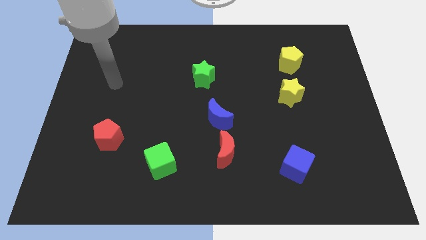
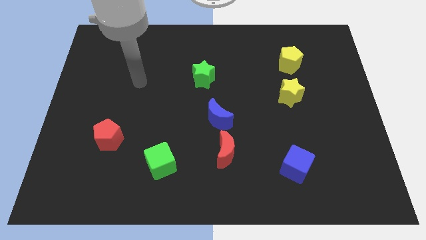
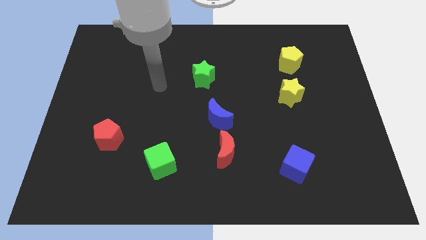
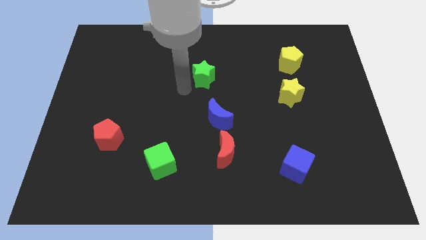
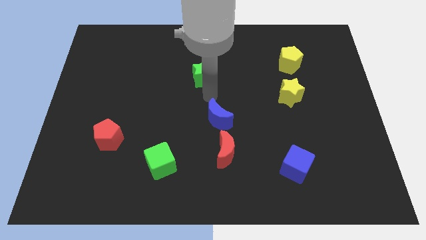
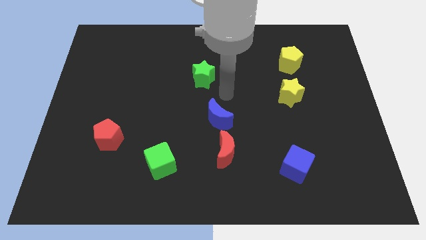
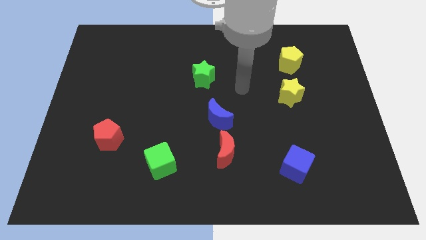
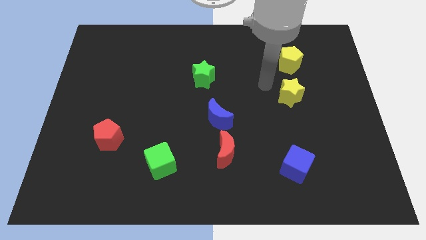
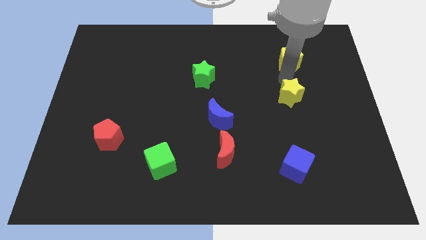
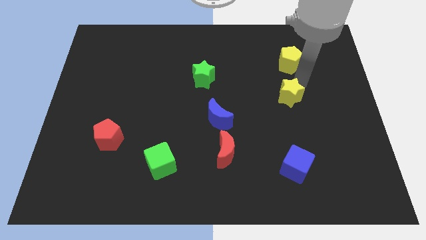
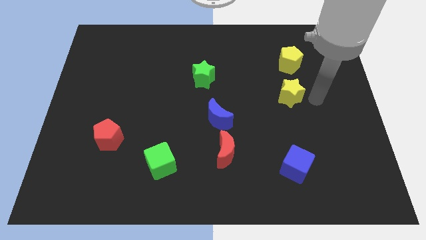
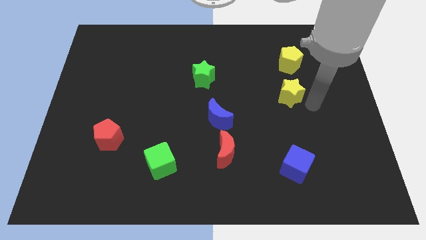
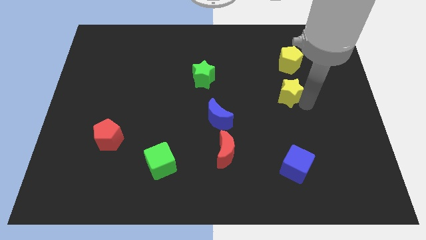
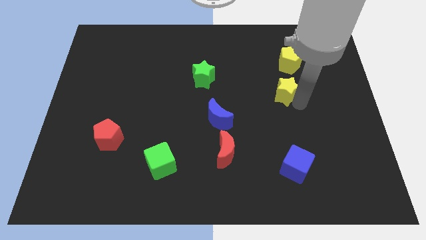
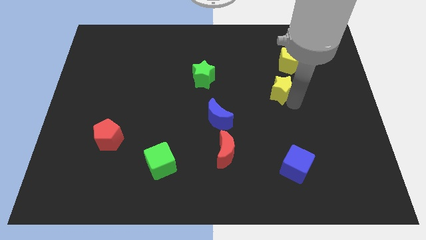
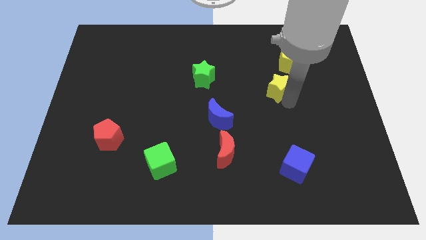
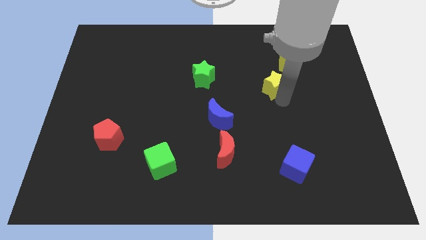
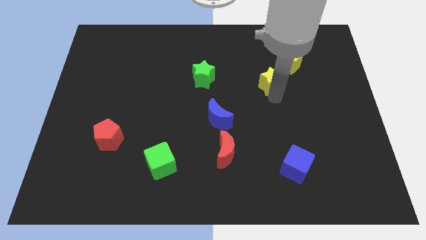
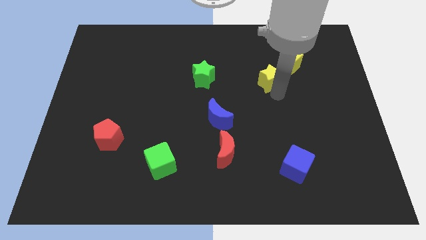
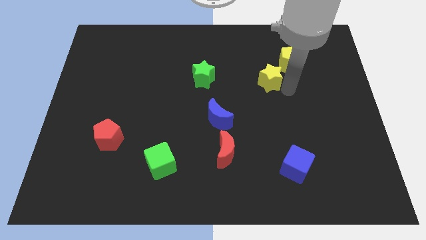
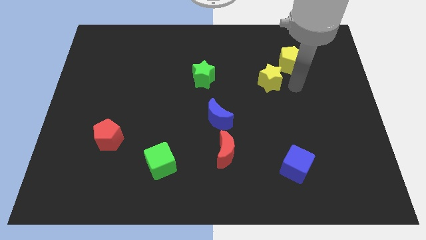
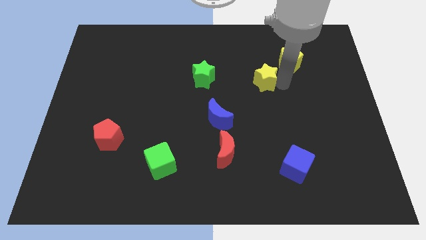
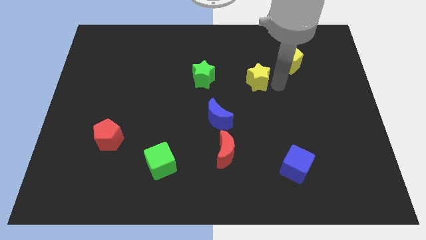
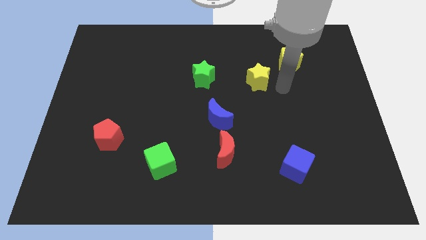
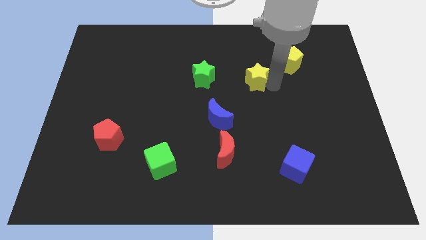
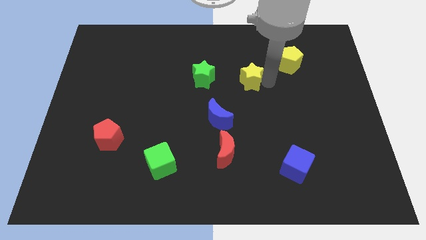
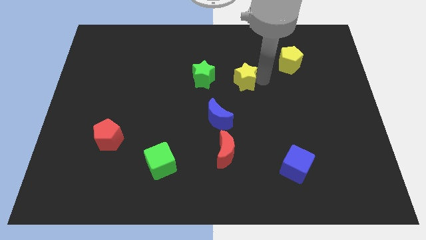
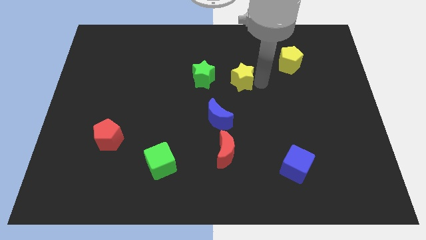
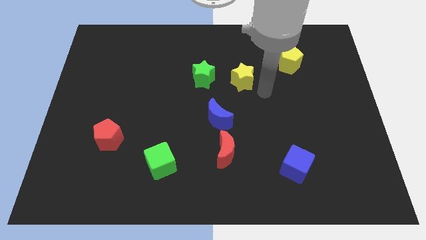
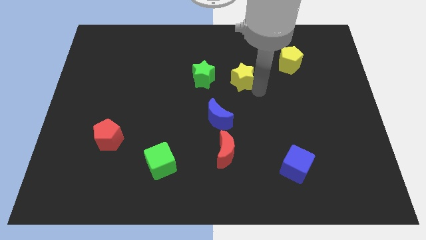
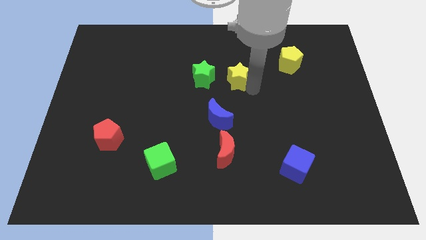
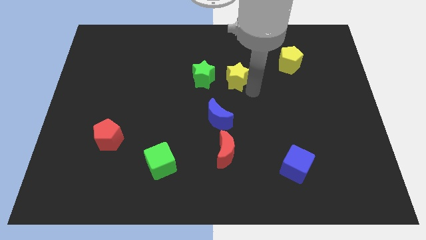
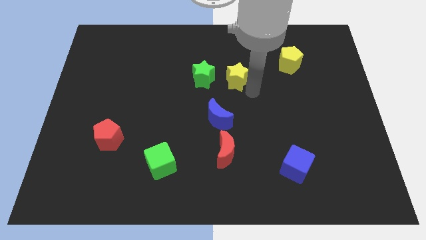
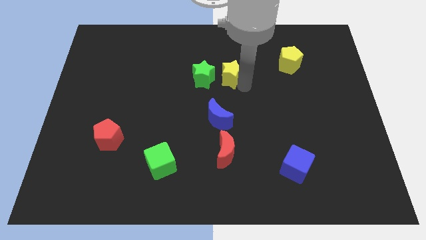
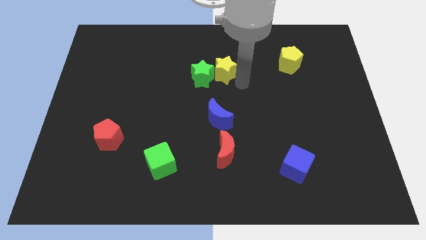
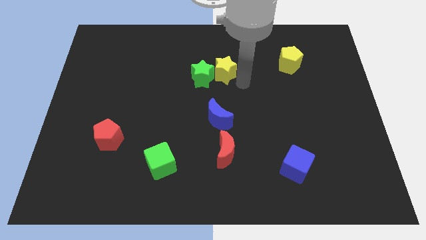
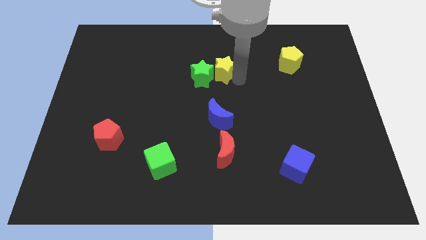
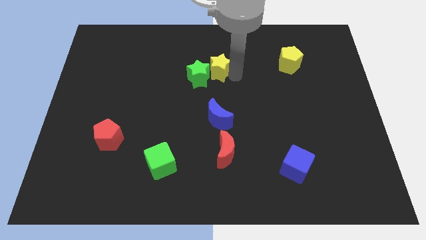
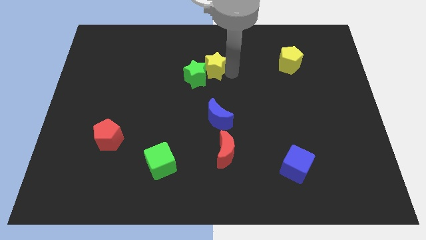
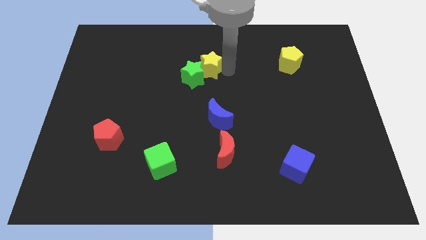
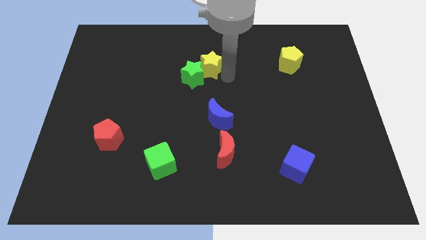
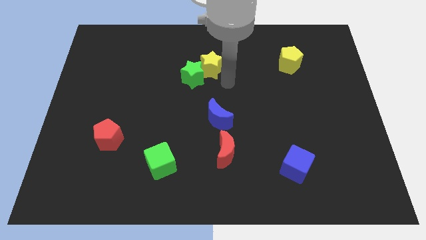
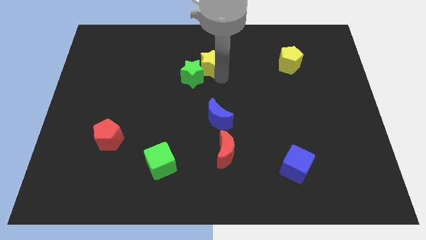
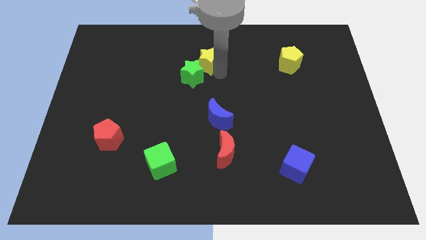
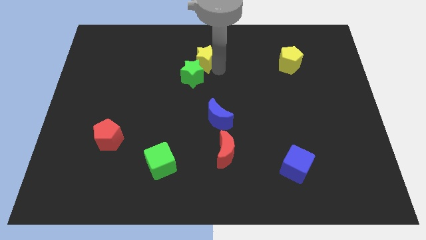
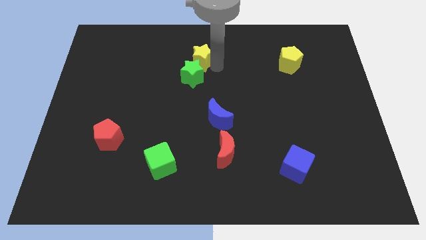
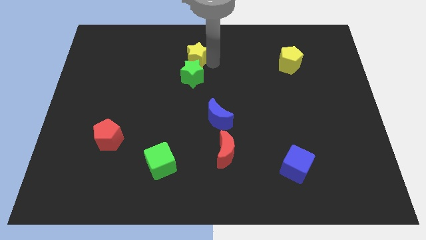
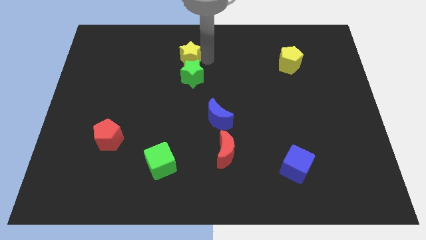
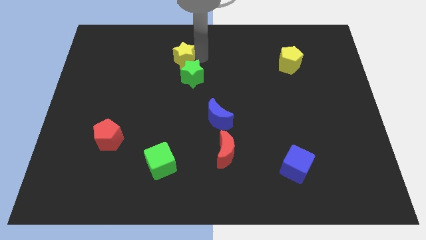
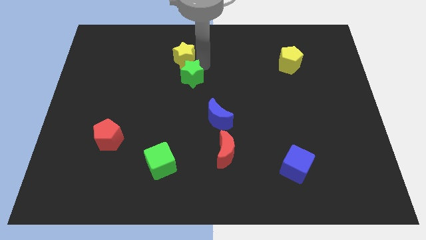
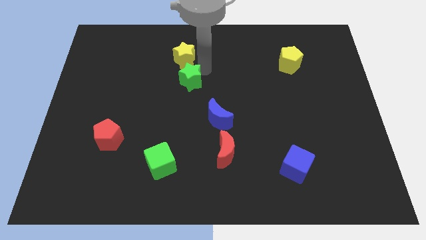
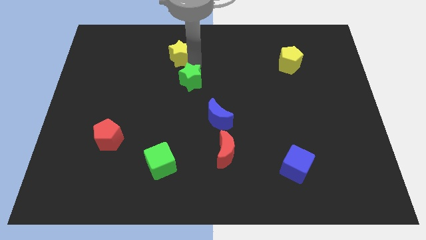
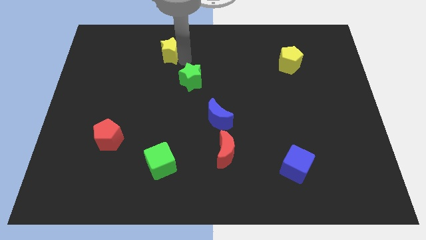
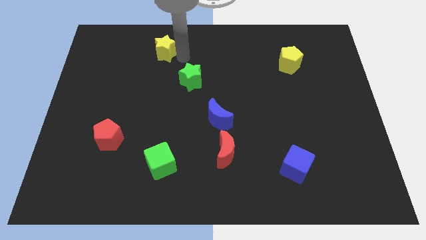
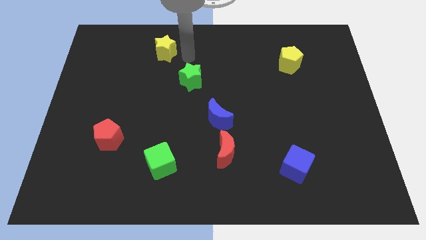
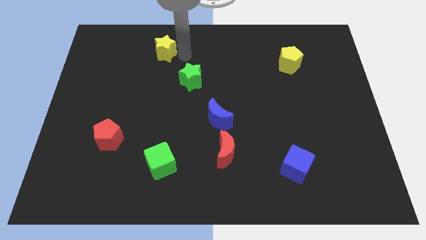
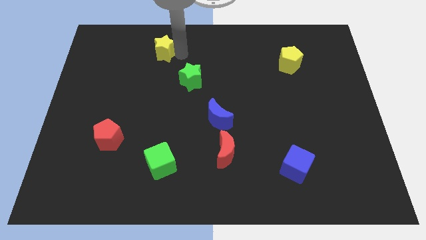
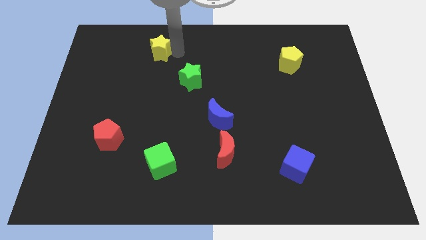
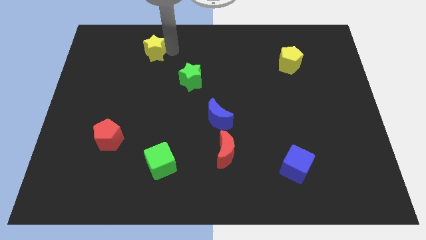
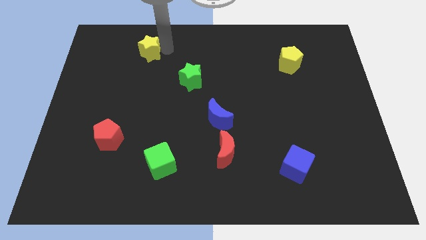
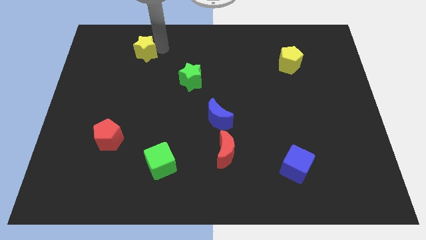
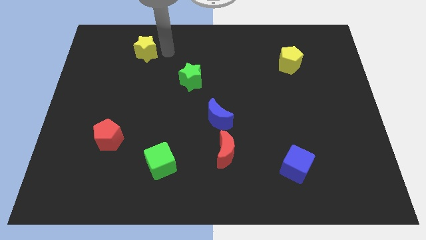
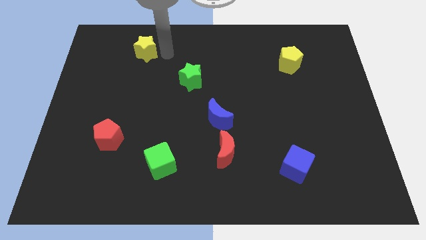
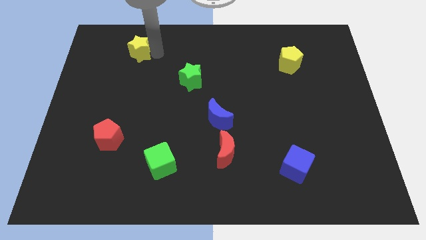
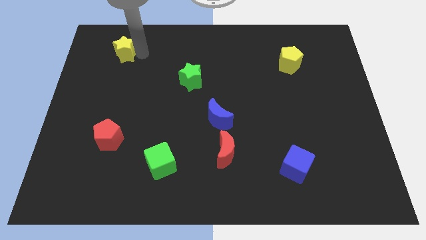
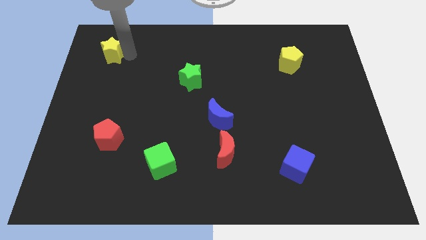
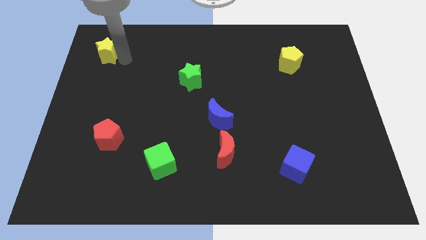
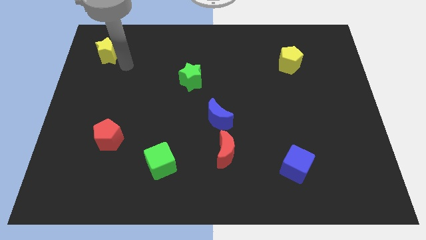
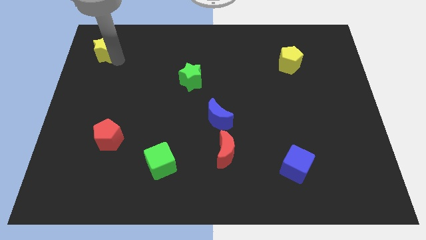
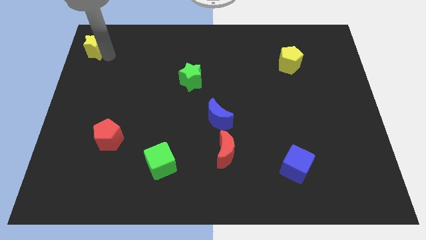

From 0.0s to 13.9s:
slide the yellow star to the top left corner
